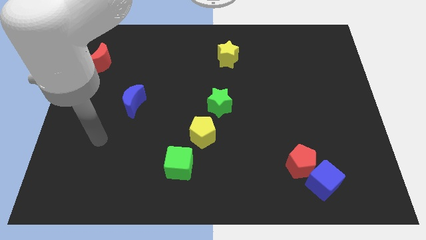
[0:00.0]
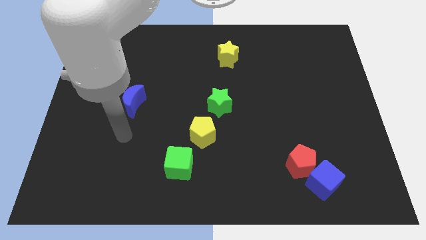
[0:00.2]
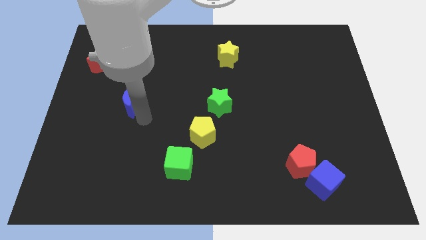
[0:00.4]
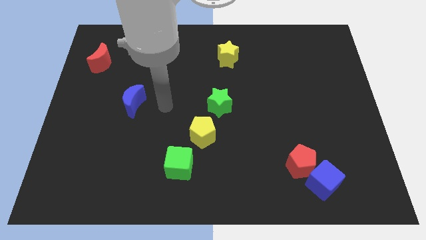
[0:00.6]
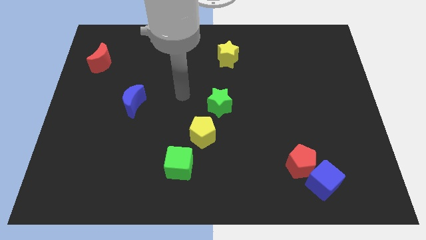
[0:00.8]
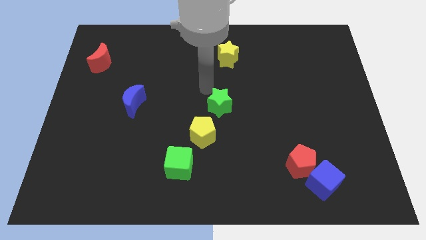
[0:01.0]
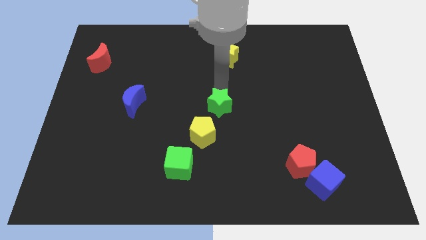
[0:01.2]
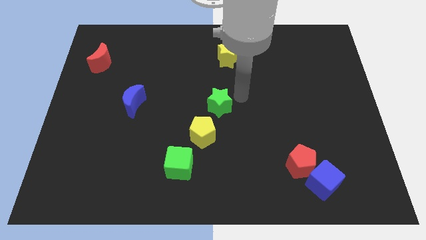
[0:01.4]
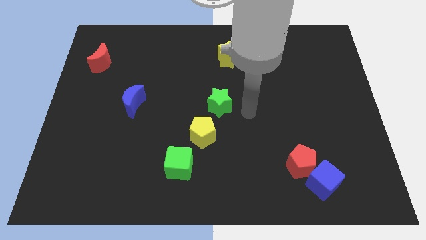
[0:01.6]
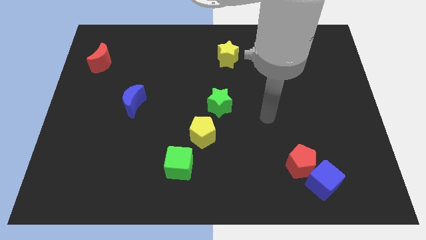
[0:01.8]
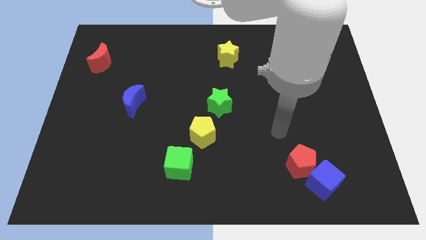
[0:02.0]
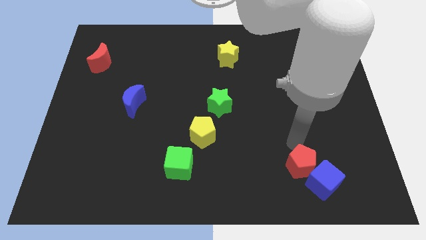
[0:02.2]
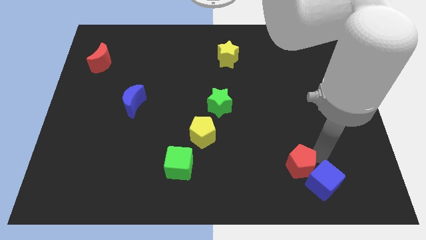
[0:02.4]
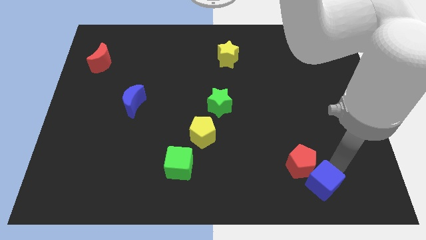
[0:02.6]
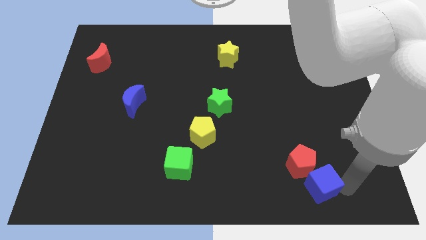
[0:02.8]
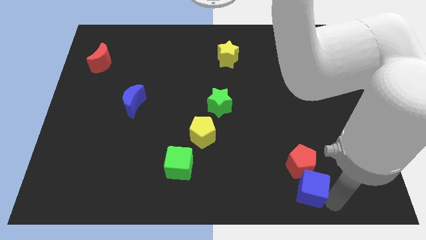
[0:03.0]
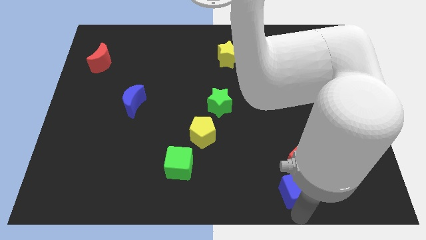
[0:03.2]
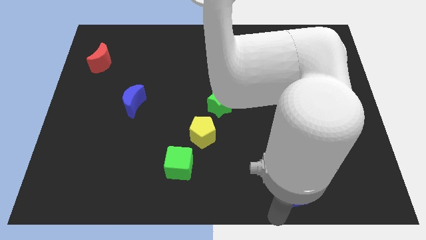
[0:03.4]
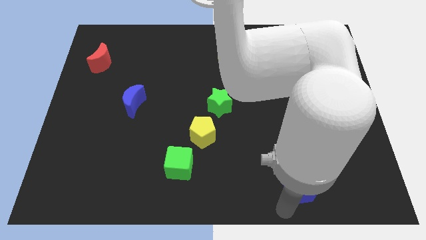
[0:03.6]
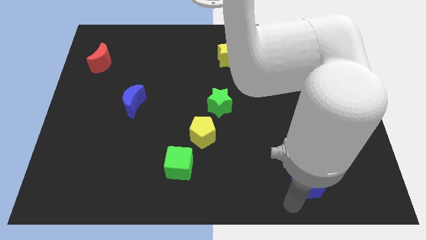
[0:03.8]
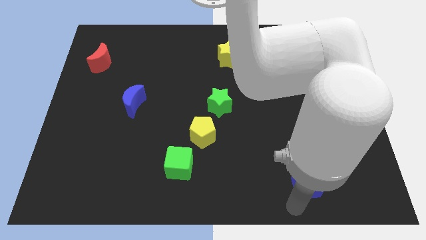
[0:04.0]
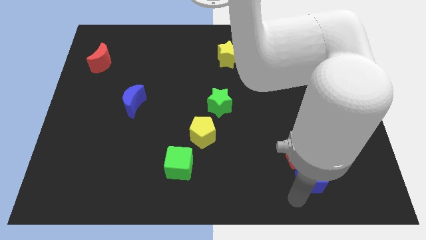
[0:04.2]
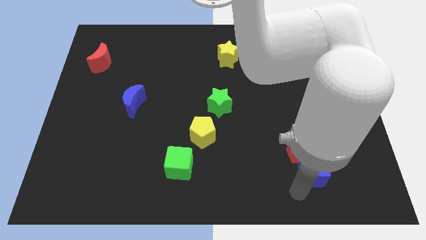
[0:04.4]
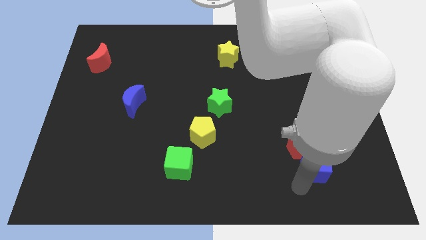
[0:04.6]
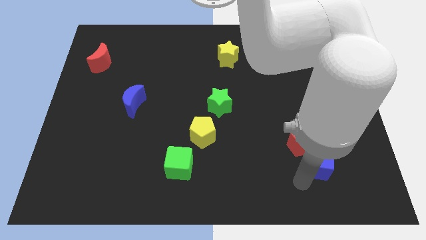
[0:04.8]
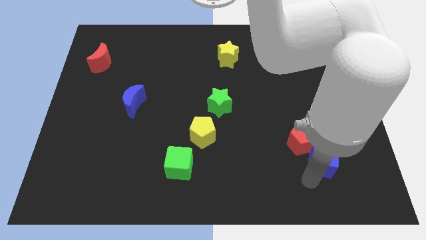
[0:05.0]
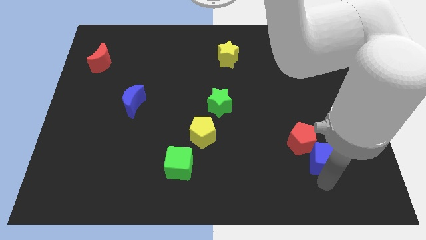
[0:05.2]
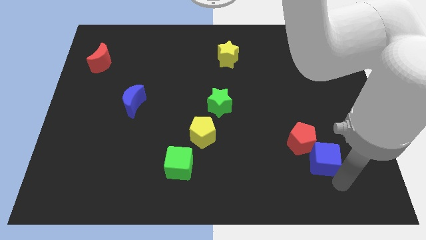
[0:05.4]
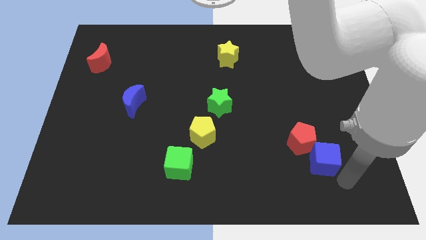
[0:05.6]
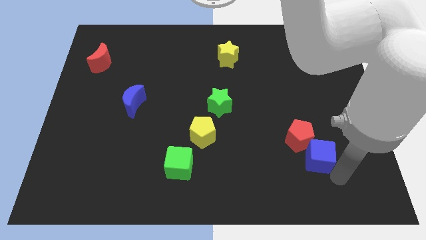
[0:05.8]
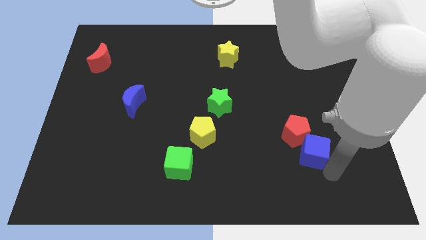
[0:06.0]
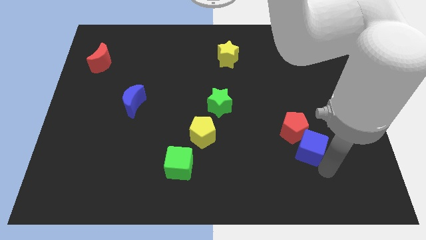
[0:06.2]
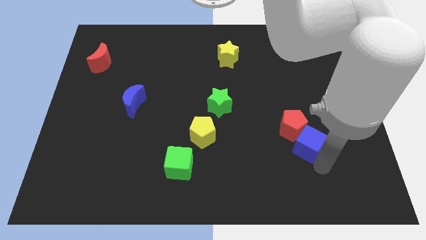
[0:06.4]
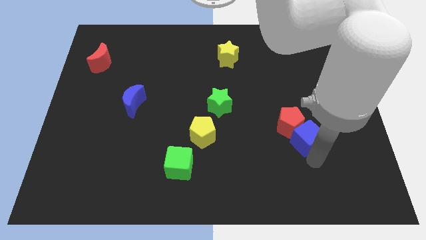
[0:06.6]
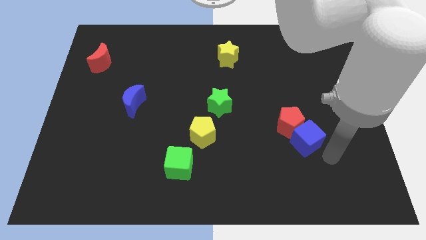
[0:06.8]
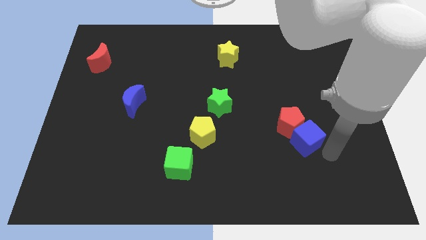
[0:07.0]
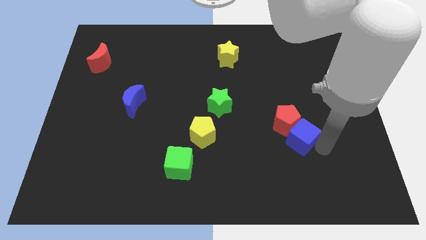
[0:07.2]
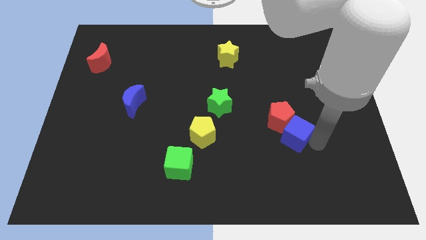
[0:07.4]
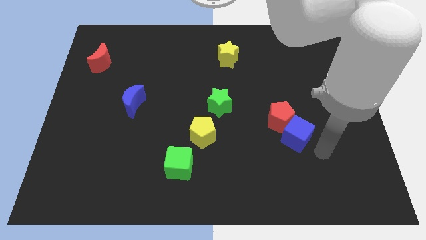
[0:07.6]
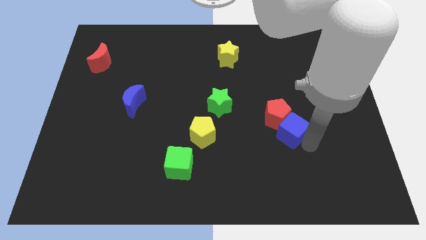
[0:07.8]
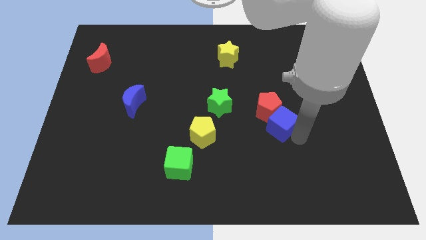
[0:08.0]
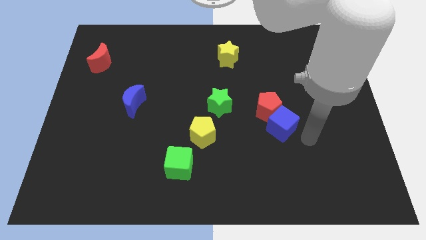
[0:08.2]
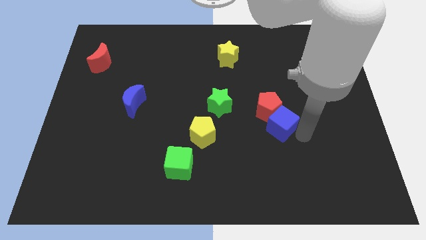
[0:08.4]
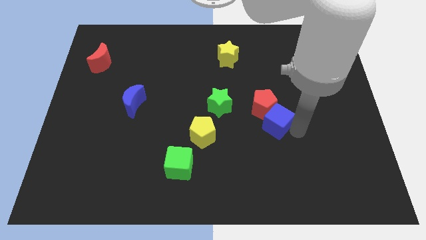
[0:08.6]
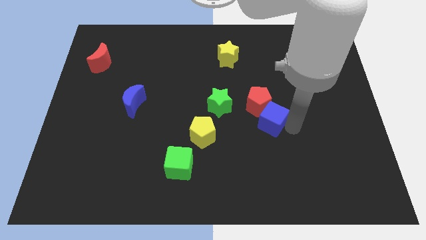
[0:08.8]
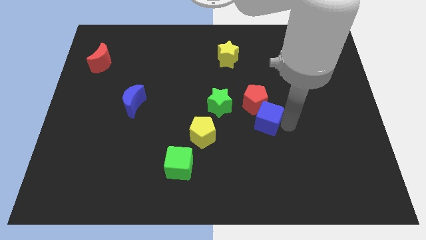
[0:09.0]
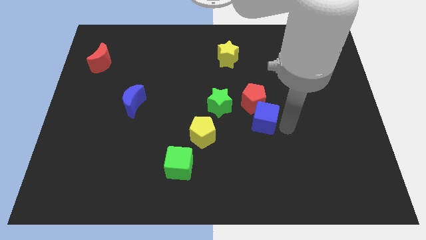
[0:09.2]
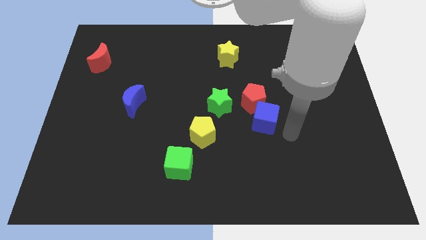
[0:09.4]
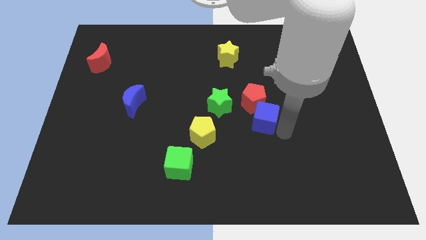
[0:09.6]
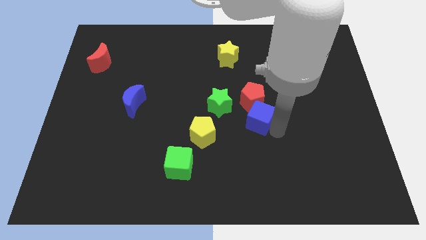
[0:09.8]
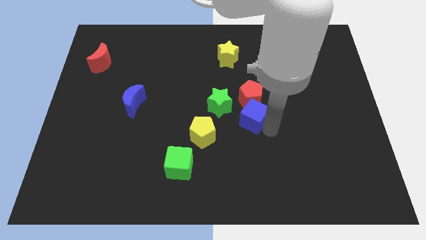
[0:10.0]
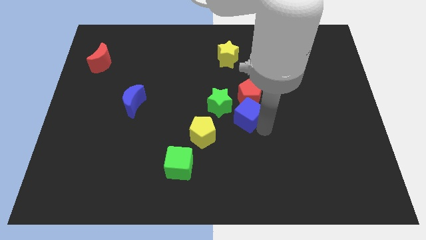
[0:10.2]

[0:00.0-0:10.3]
slide the blue cube to the top right side of the yellow pentagon

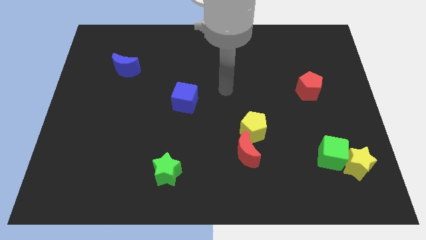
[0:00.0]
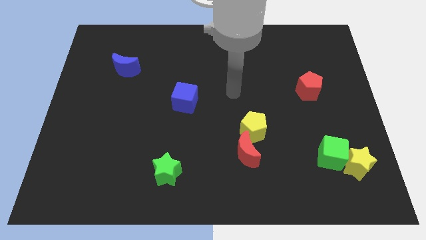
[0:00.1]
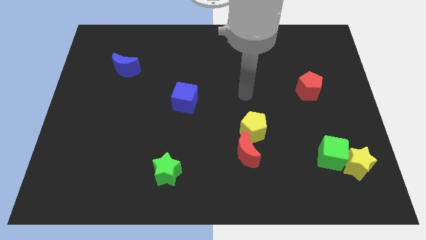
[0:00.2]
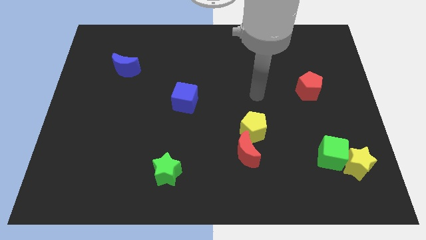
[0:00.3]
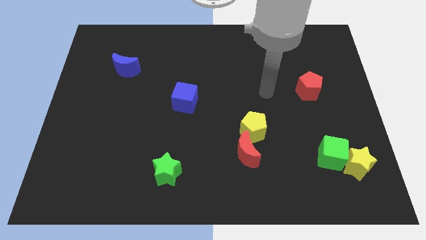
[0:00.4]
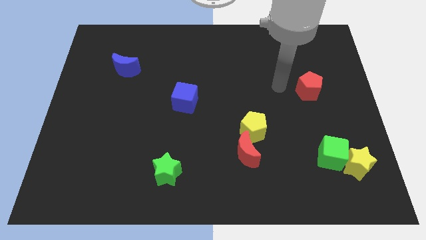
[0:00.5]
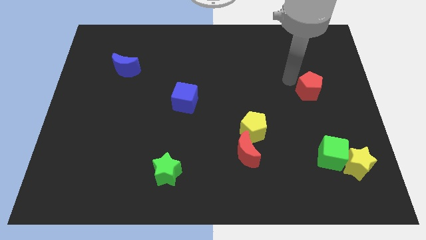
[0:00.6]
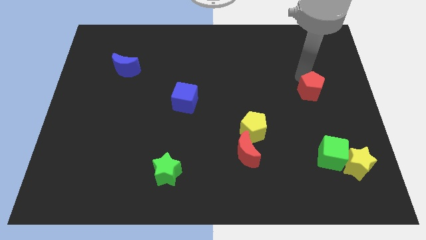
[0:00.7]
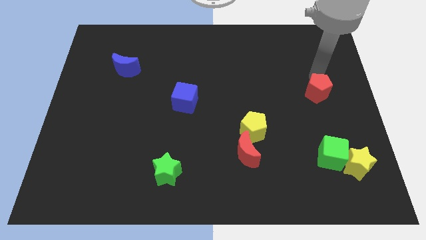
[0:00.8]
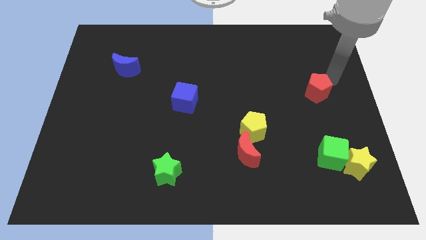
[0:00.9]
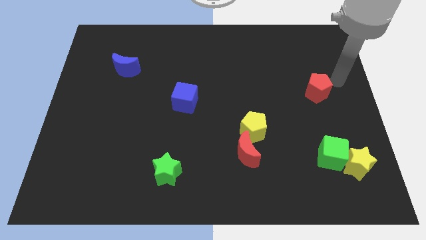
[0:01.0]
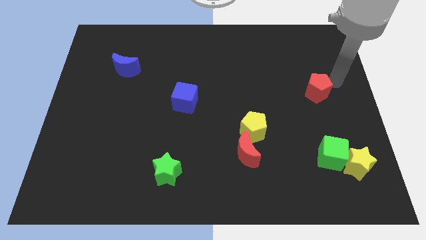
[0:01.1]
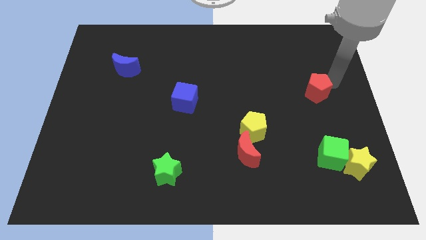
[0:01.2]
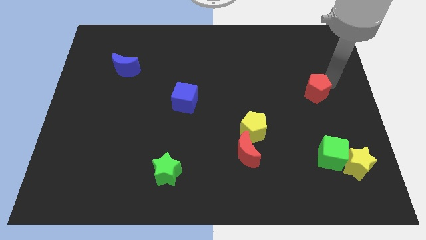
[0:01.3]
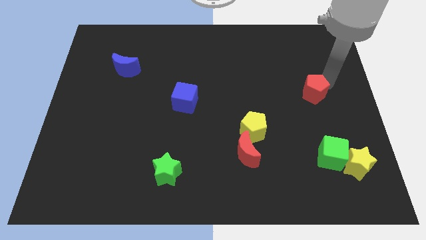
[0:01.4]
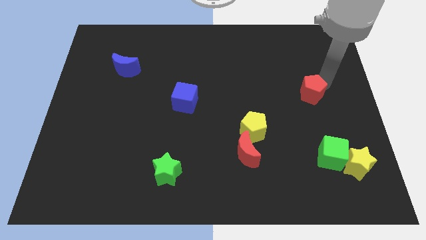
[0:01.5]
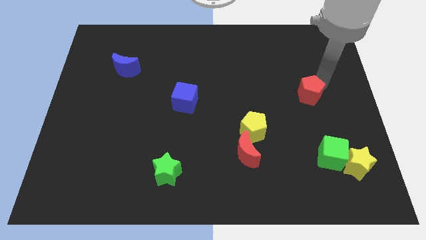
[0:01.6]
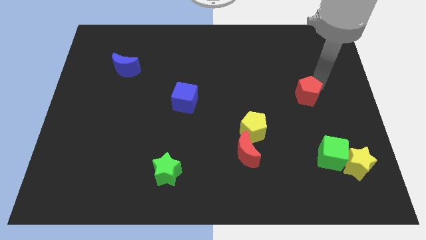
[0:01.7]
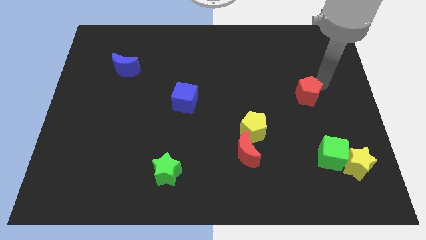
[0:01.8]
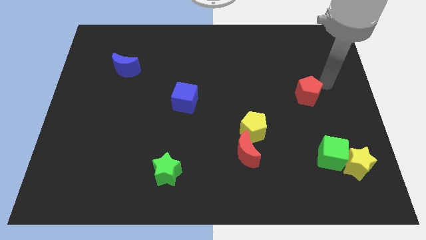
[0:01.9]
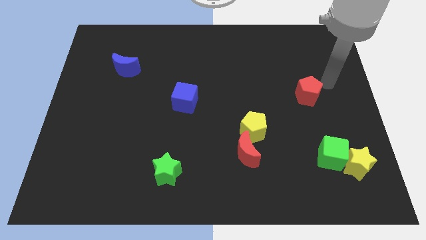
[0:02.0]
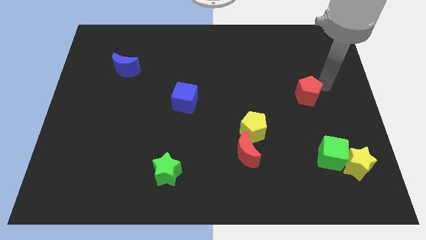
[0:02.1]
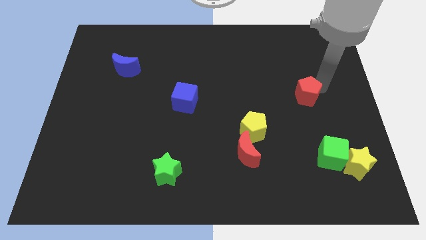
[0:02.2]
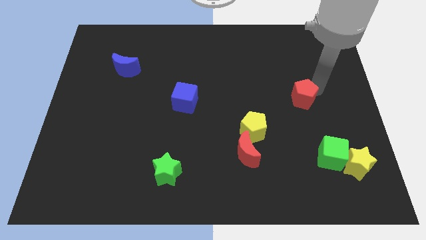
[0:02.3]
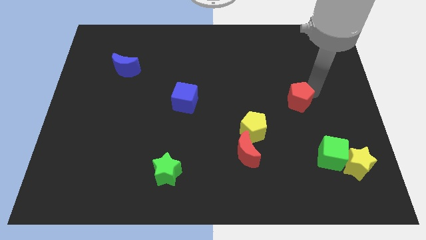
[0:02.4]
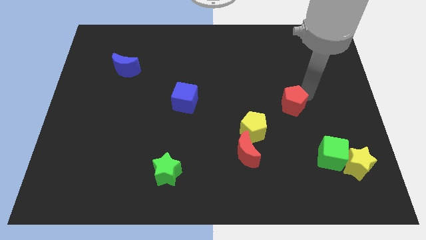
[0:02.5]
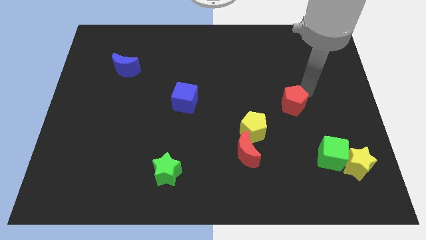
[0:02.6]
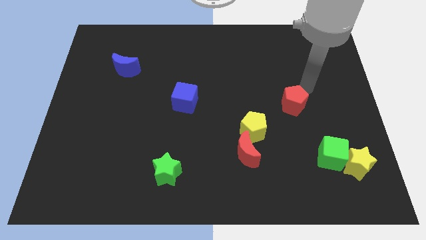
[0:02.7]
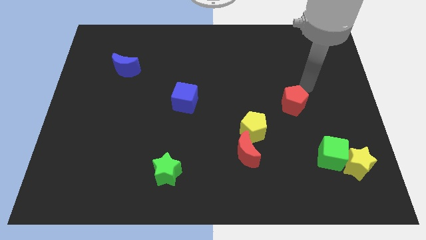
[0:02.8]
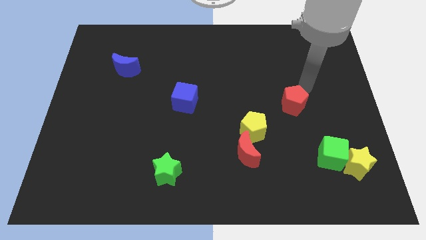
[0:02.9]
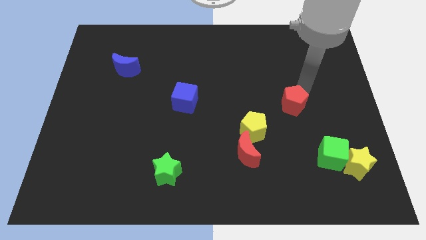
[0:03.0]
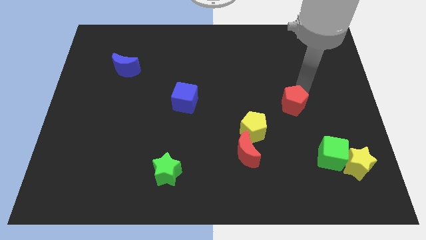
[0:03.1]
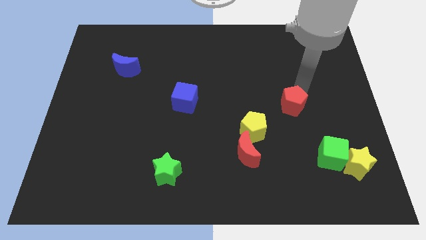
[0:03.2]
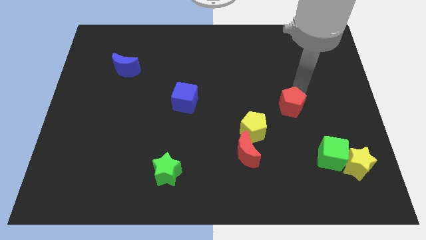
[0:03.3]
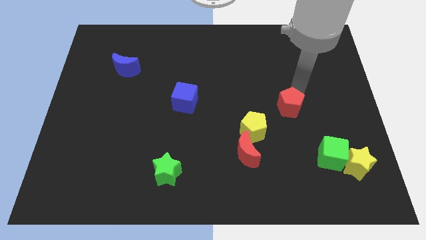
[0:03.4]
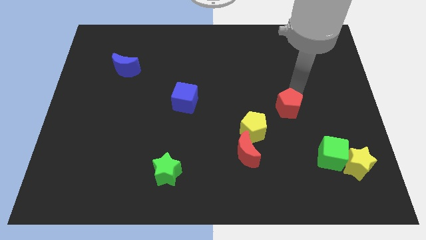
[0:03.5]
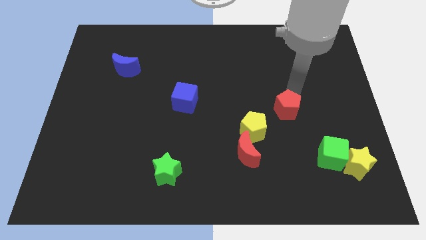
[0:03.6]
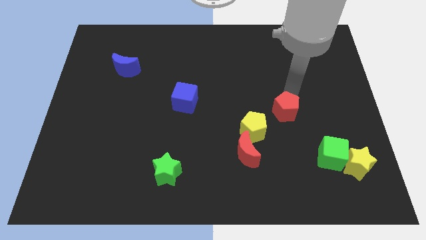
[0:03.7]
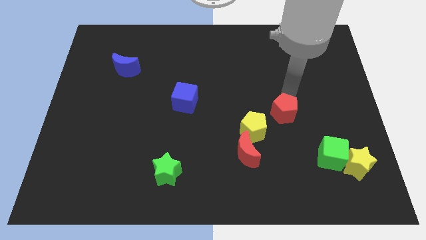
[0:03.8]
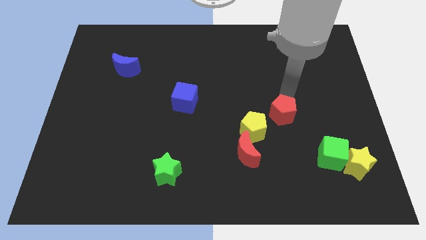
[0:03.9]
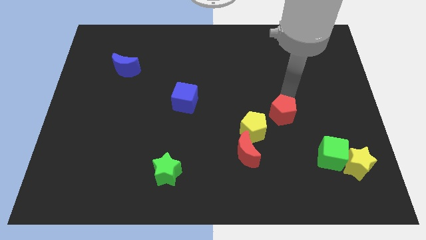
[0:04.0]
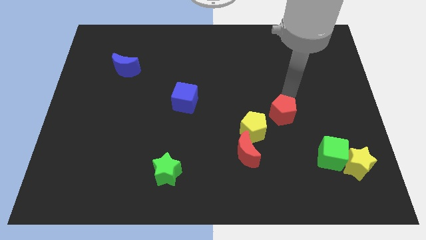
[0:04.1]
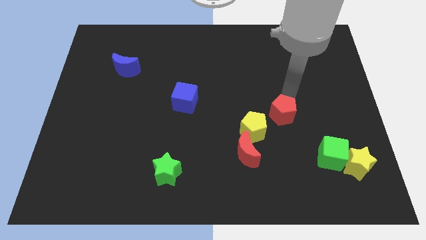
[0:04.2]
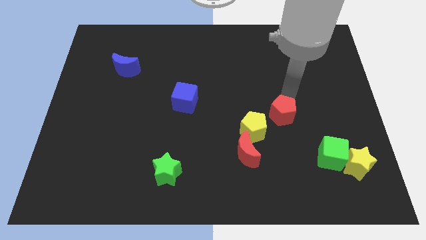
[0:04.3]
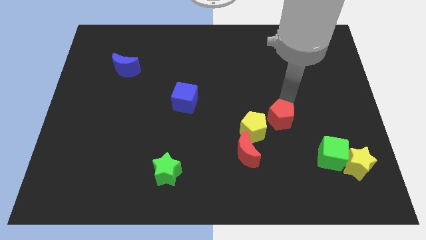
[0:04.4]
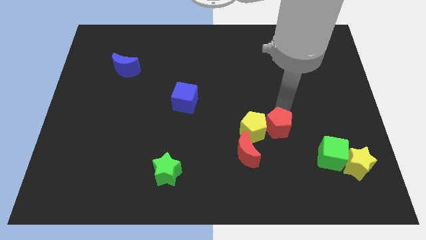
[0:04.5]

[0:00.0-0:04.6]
move the red pentagon diagonally down and to the right of the yellow pentagon
